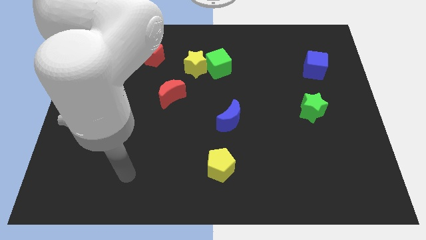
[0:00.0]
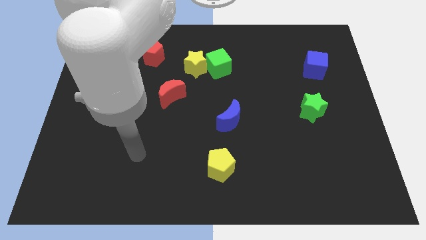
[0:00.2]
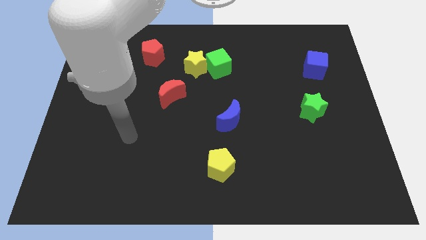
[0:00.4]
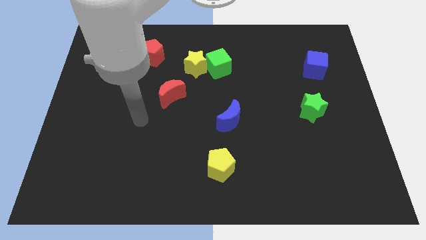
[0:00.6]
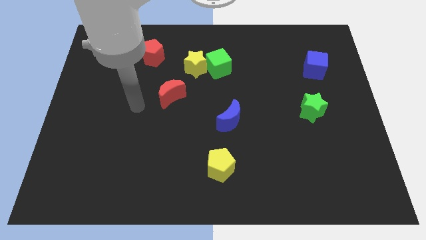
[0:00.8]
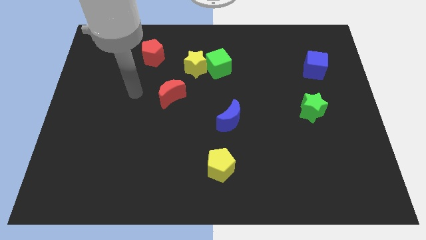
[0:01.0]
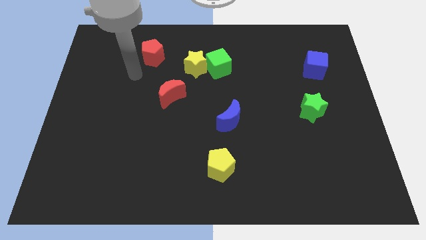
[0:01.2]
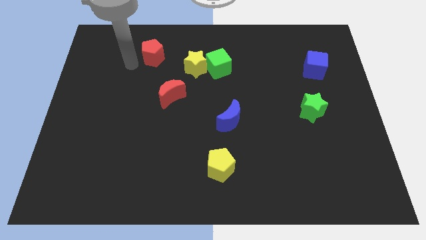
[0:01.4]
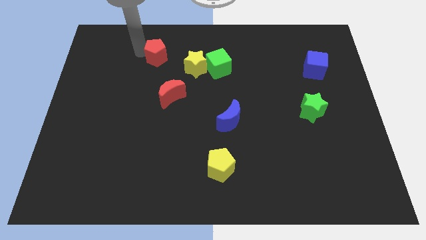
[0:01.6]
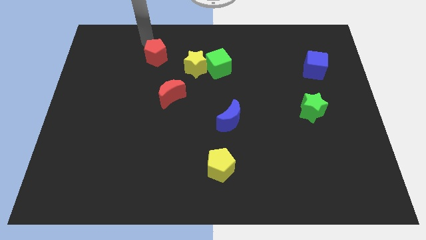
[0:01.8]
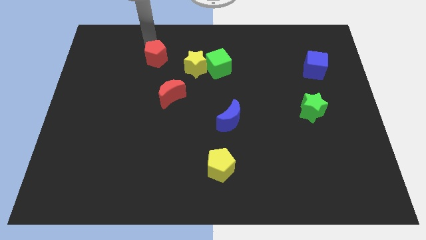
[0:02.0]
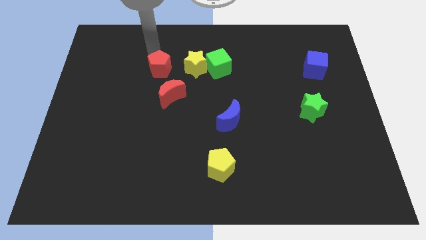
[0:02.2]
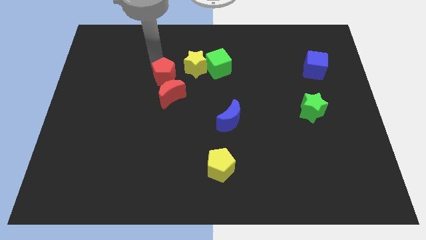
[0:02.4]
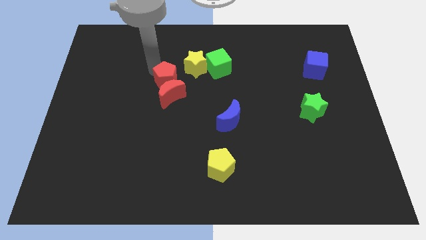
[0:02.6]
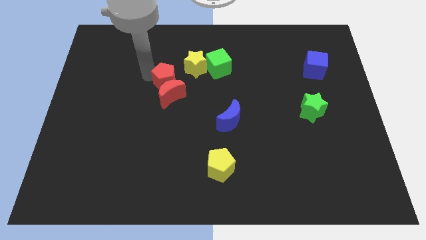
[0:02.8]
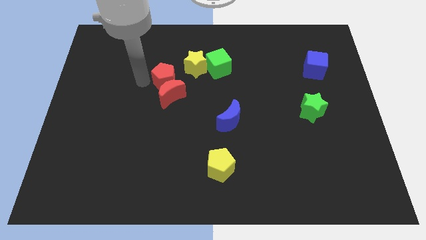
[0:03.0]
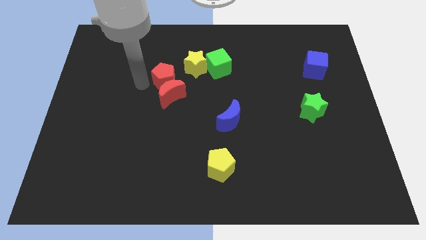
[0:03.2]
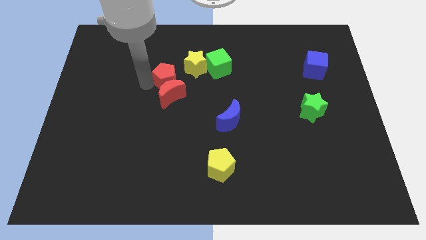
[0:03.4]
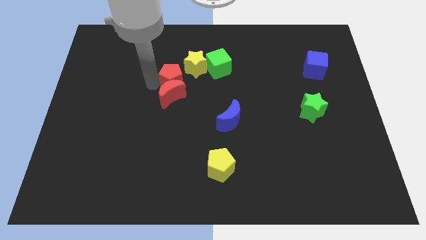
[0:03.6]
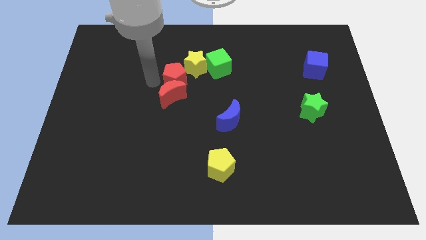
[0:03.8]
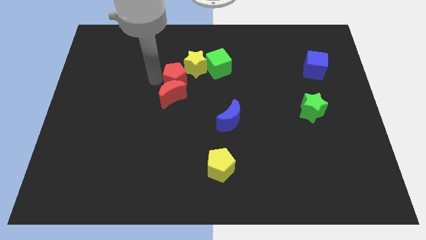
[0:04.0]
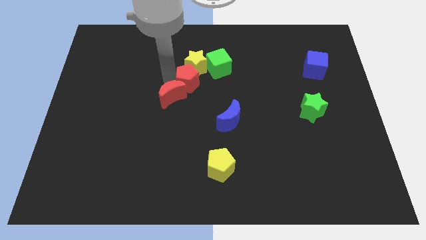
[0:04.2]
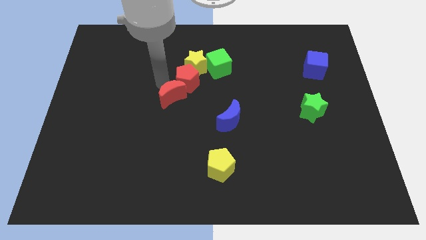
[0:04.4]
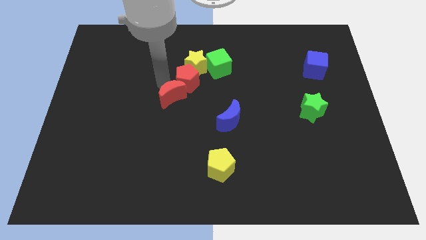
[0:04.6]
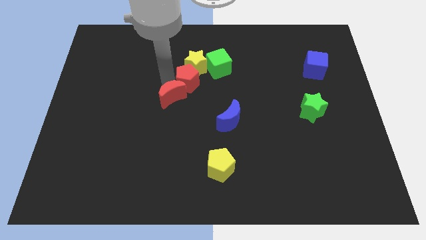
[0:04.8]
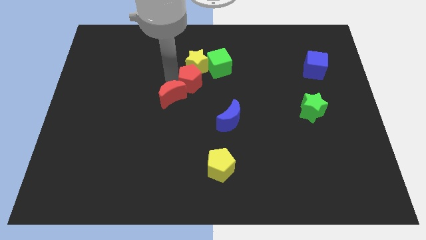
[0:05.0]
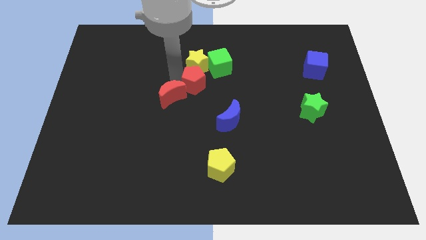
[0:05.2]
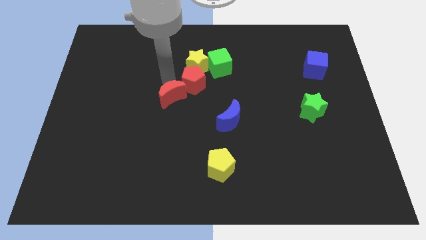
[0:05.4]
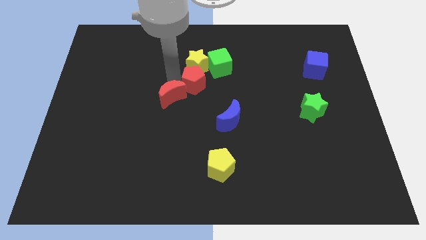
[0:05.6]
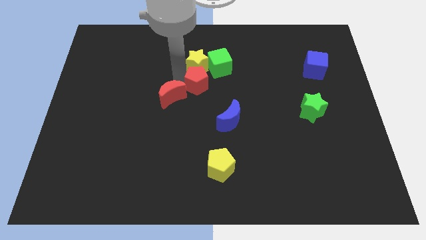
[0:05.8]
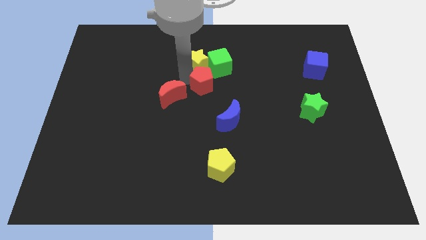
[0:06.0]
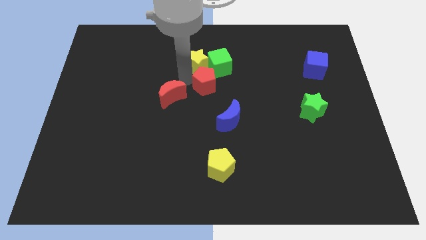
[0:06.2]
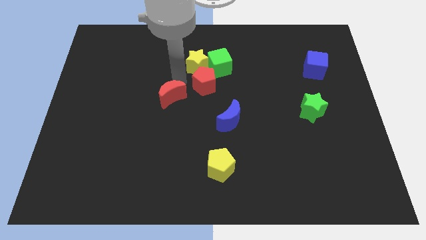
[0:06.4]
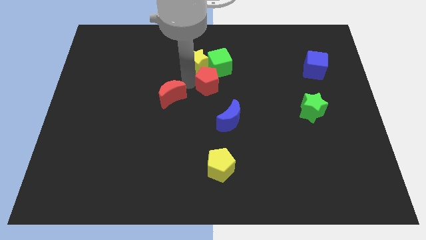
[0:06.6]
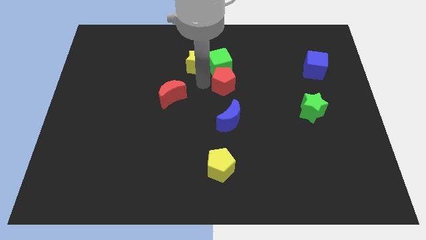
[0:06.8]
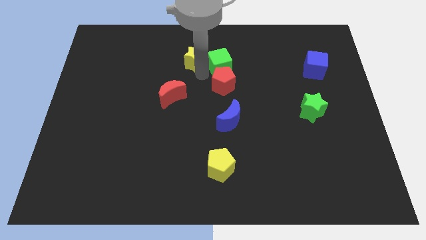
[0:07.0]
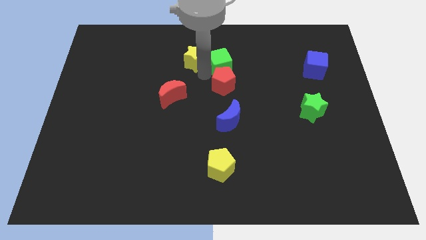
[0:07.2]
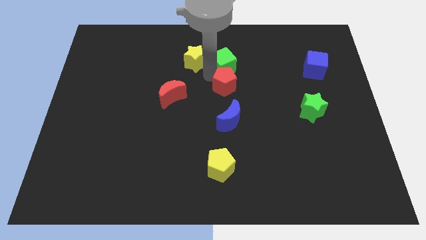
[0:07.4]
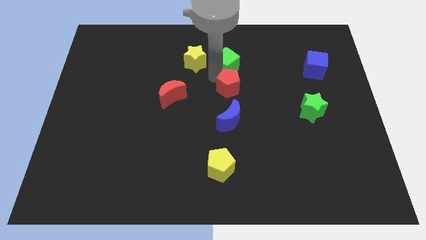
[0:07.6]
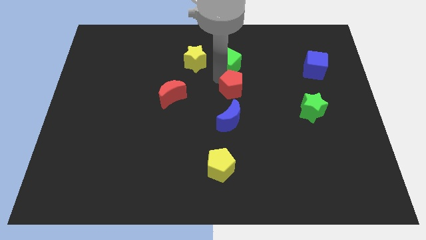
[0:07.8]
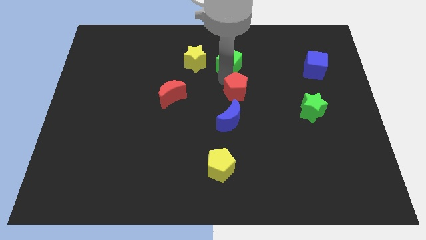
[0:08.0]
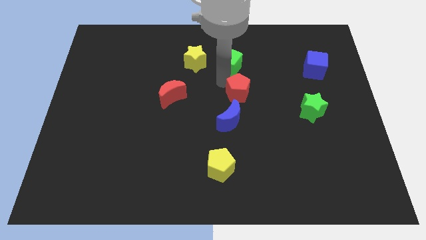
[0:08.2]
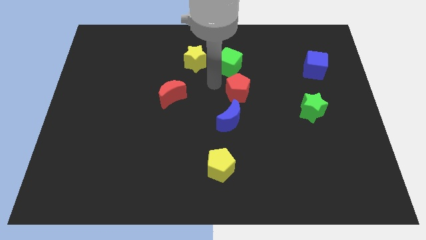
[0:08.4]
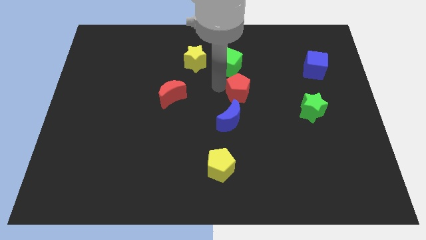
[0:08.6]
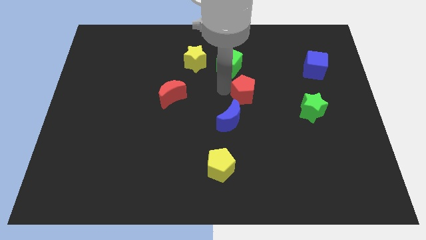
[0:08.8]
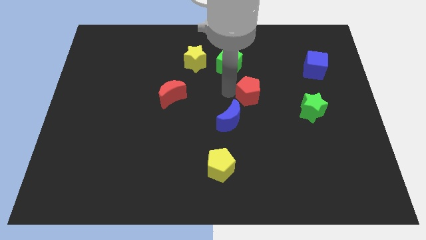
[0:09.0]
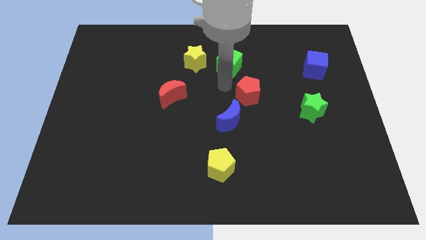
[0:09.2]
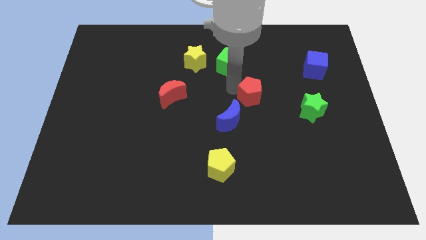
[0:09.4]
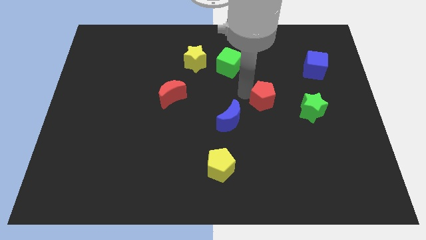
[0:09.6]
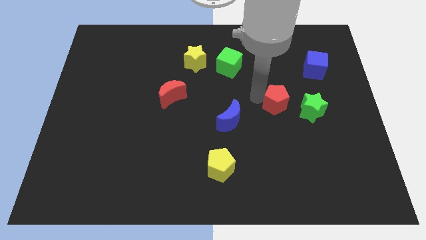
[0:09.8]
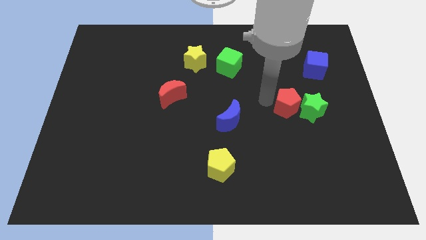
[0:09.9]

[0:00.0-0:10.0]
move the red pentagon close to the green star

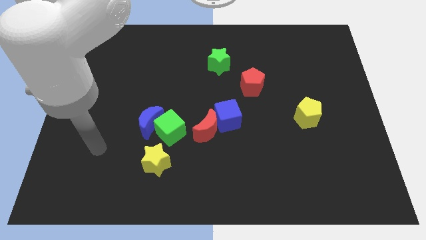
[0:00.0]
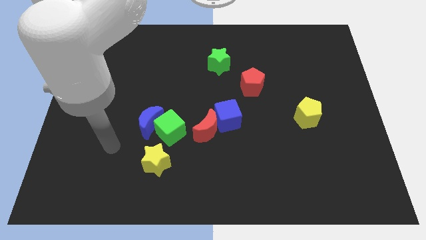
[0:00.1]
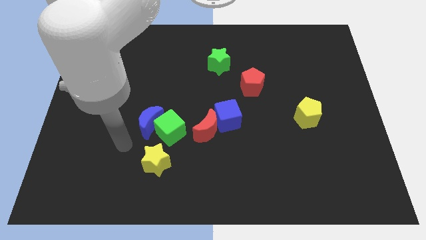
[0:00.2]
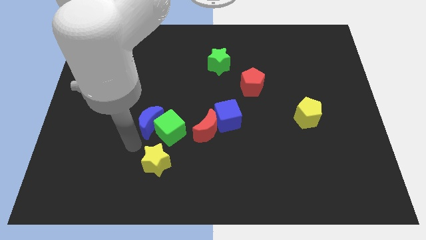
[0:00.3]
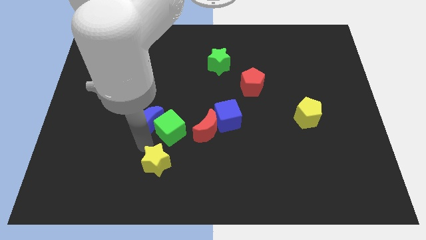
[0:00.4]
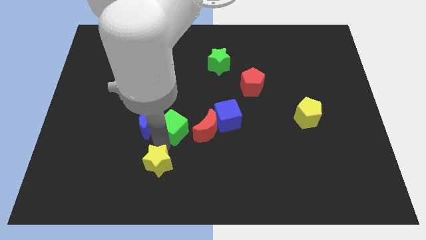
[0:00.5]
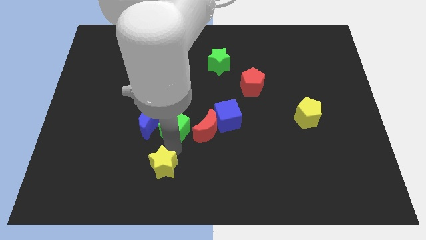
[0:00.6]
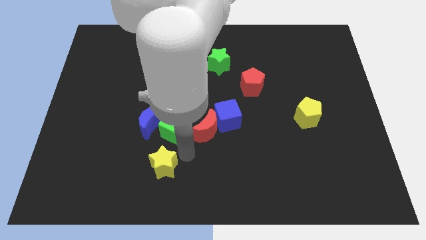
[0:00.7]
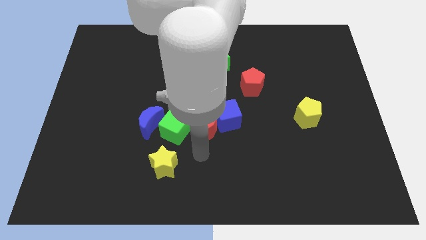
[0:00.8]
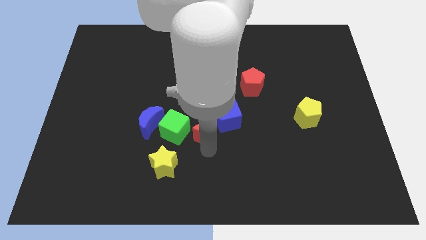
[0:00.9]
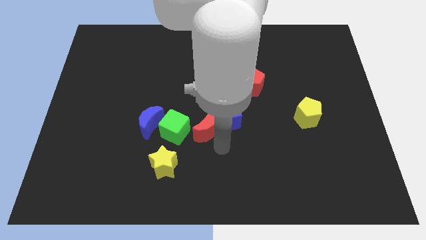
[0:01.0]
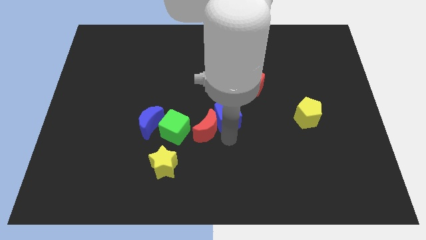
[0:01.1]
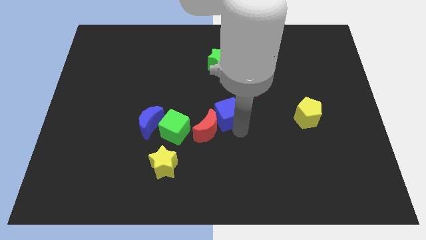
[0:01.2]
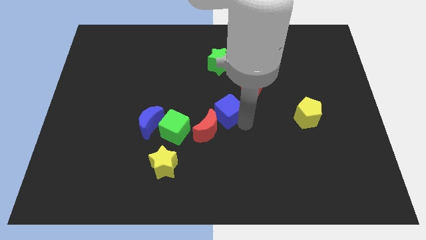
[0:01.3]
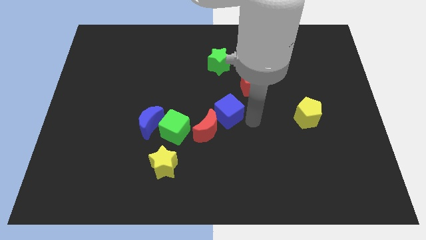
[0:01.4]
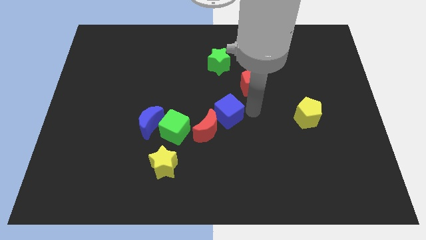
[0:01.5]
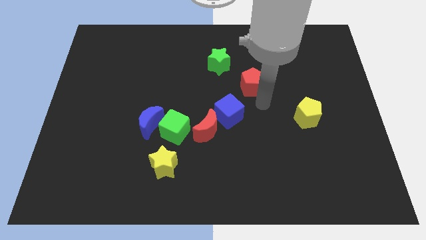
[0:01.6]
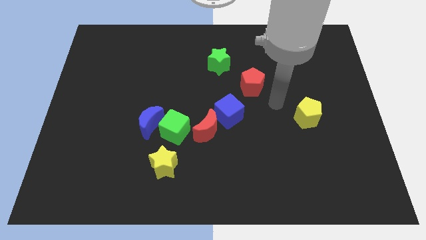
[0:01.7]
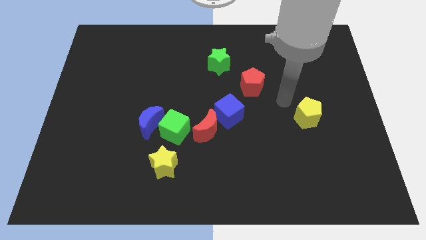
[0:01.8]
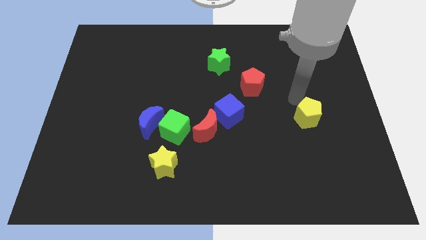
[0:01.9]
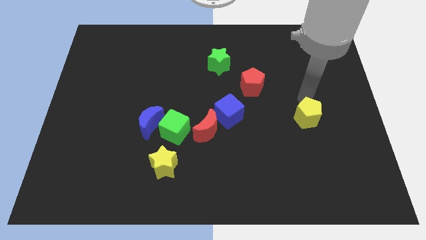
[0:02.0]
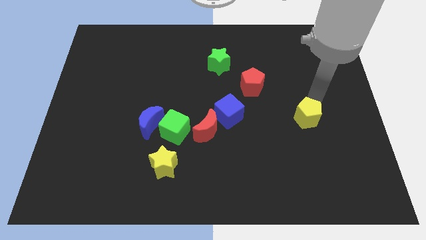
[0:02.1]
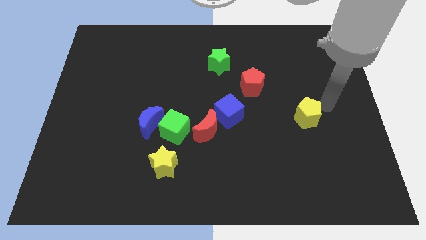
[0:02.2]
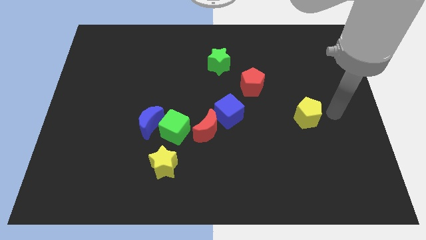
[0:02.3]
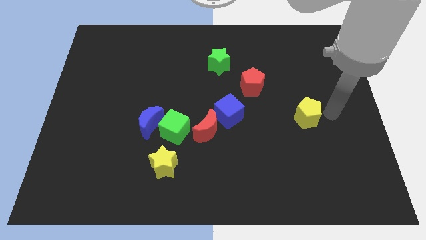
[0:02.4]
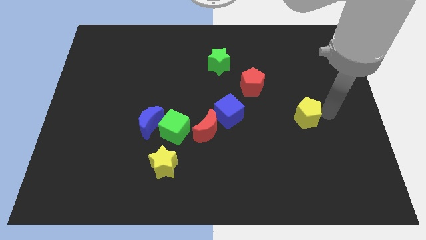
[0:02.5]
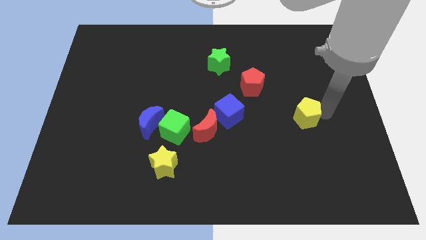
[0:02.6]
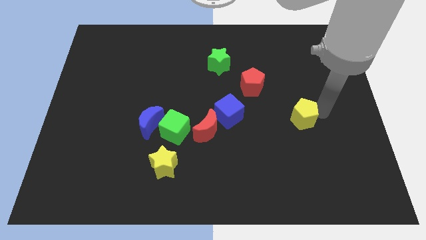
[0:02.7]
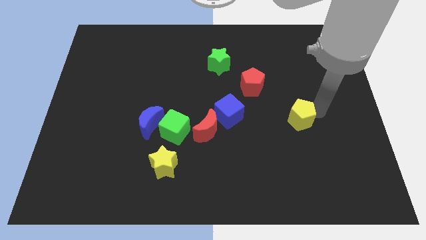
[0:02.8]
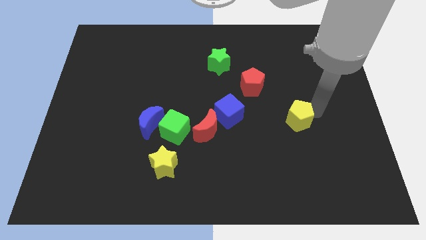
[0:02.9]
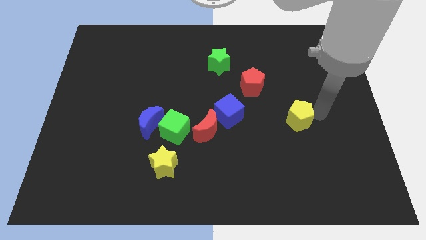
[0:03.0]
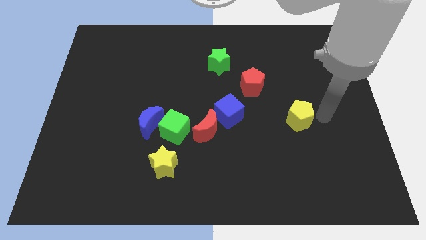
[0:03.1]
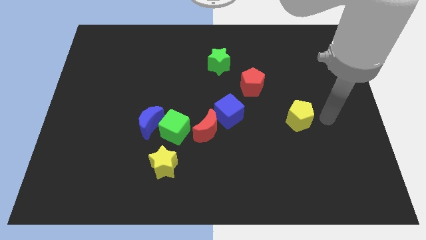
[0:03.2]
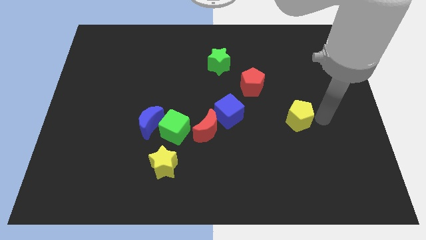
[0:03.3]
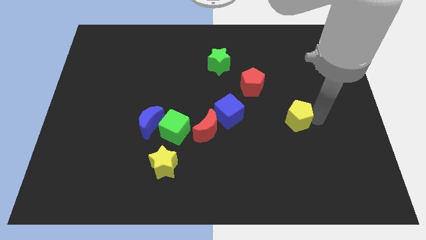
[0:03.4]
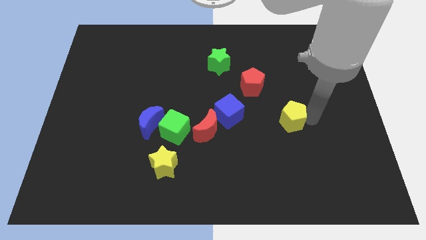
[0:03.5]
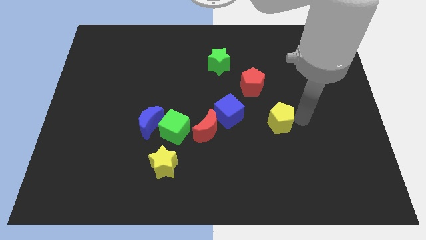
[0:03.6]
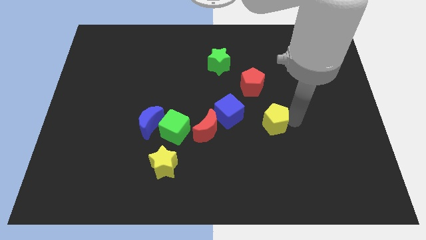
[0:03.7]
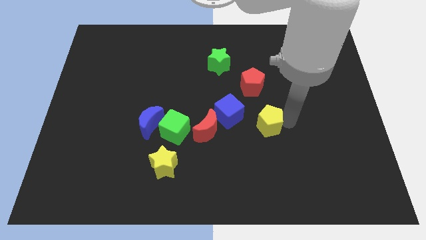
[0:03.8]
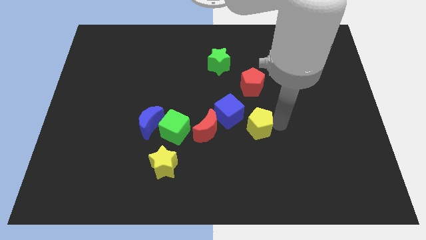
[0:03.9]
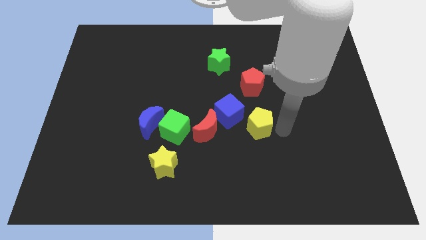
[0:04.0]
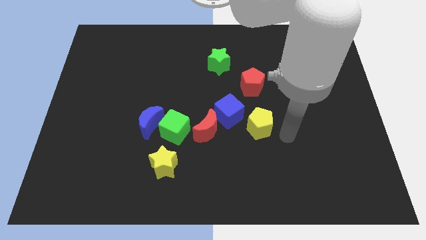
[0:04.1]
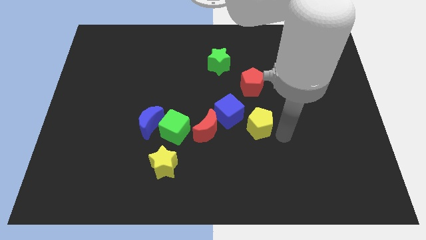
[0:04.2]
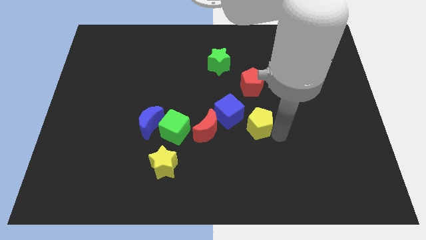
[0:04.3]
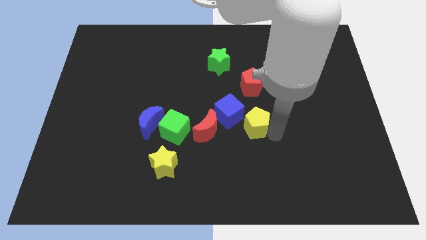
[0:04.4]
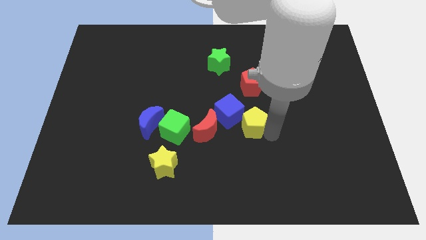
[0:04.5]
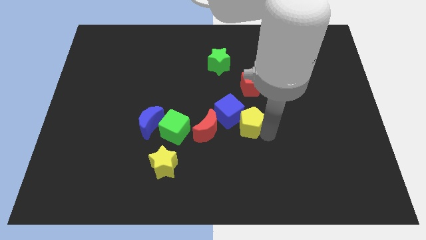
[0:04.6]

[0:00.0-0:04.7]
slide the yellow pentagon close to the blue cube
